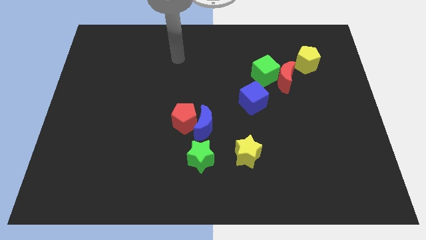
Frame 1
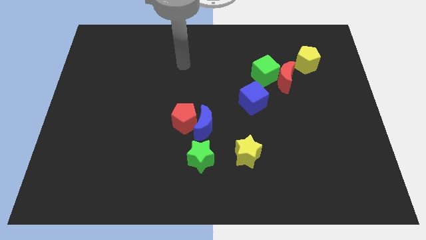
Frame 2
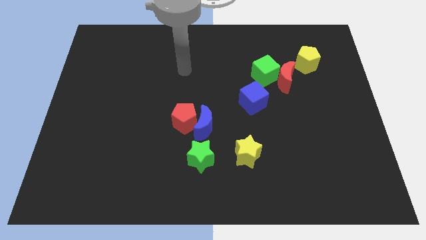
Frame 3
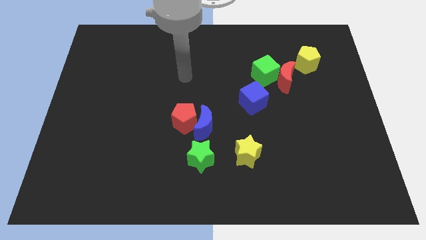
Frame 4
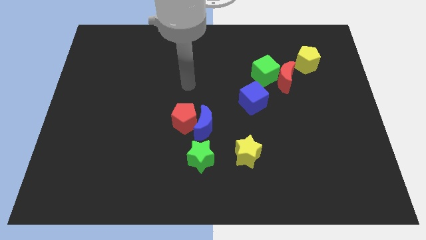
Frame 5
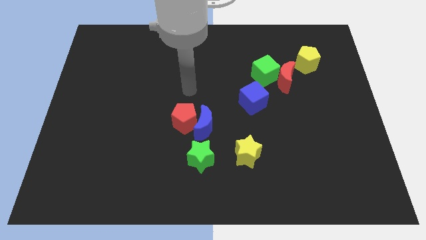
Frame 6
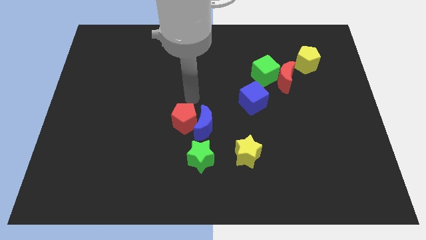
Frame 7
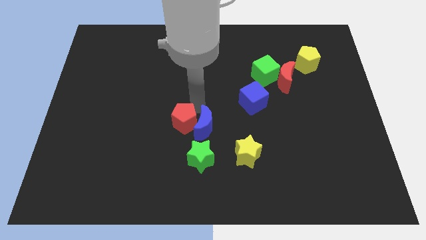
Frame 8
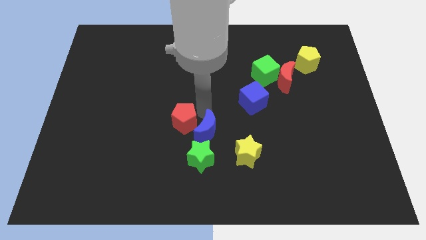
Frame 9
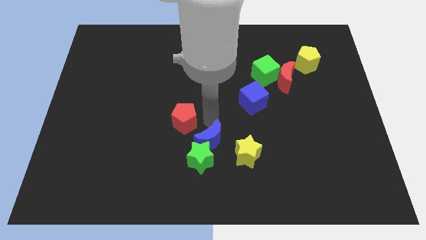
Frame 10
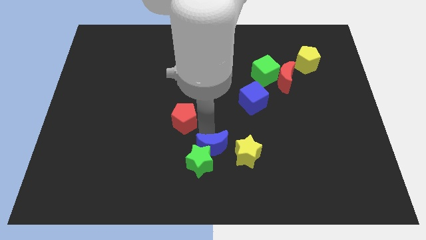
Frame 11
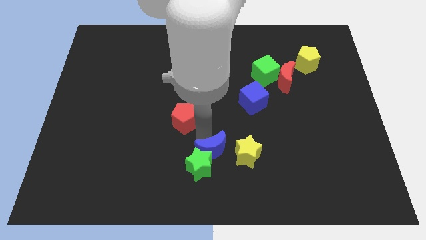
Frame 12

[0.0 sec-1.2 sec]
pull the red pentagon apart from the blue moon

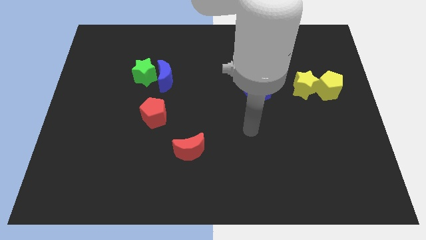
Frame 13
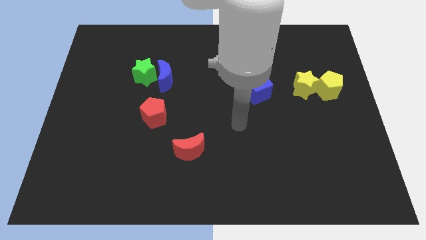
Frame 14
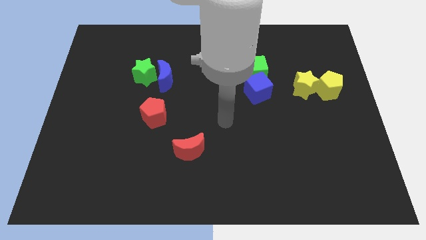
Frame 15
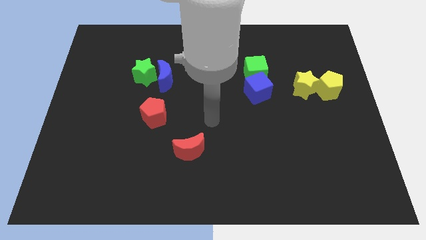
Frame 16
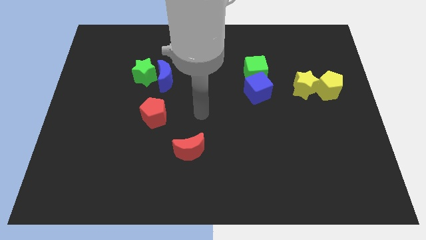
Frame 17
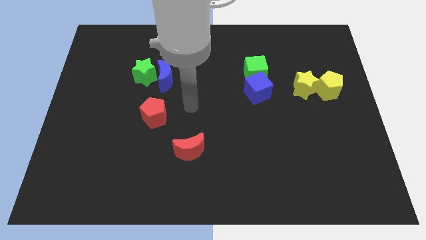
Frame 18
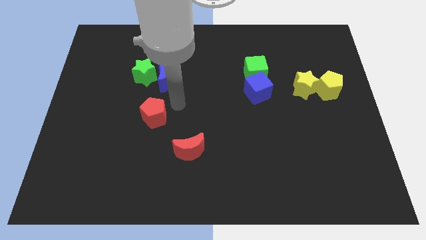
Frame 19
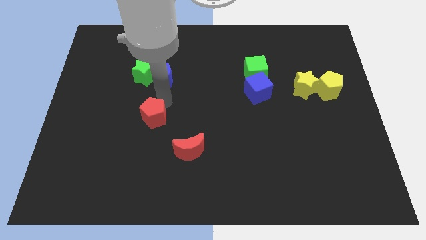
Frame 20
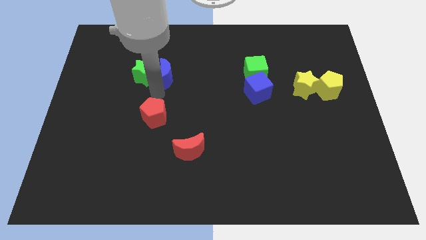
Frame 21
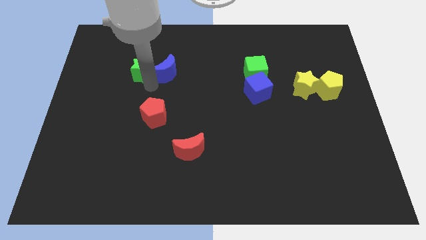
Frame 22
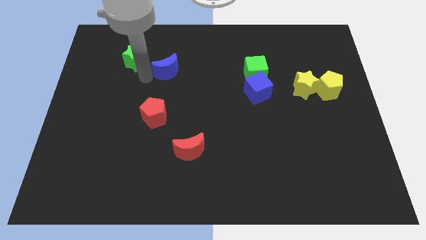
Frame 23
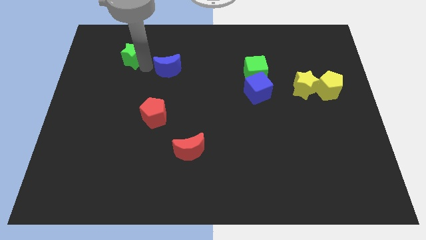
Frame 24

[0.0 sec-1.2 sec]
pull the blue moon apart from the green star

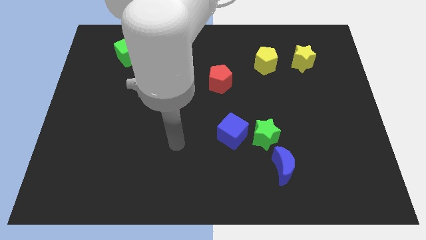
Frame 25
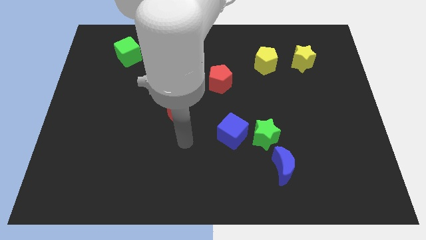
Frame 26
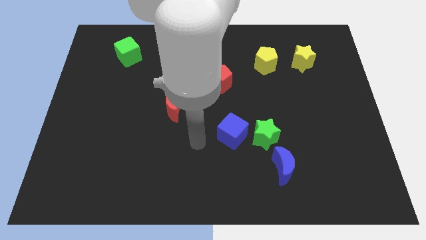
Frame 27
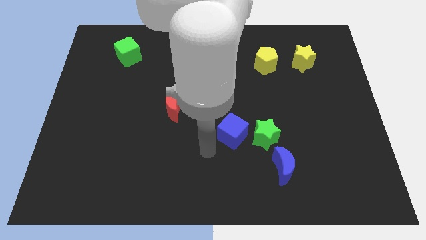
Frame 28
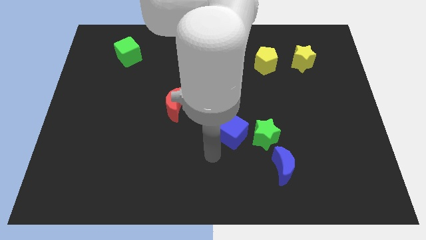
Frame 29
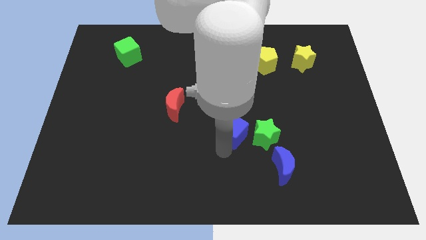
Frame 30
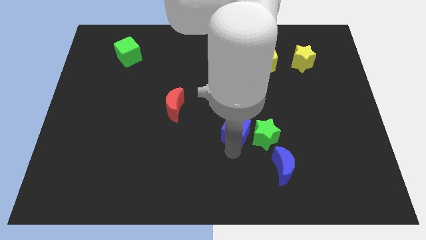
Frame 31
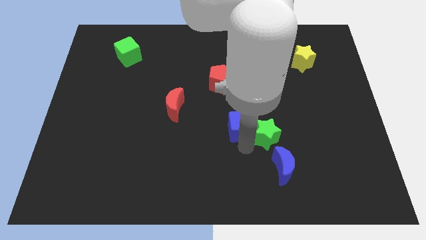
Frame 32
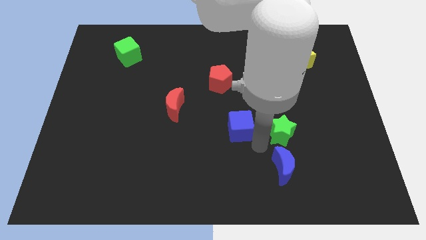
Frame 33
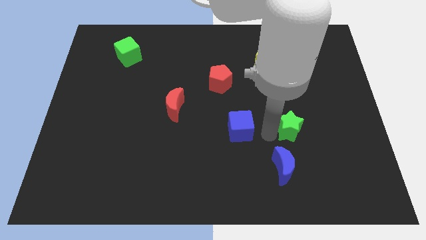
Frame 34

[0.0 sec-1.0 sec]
separate the blue cube from the green star

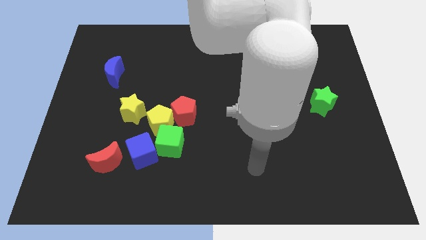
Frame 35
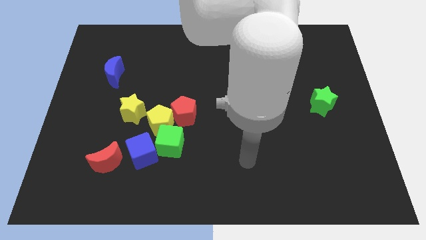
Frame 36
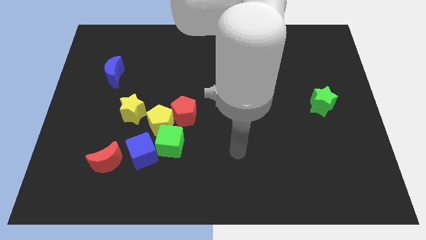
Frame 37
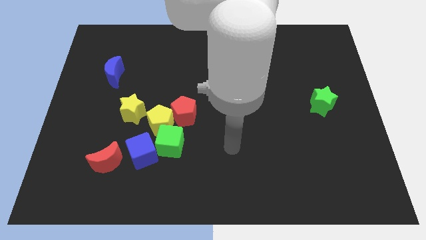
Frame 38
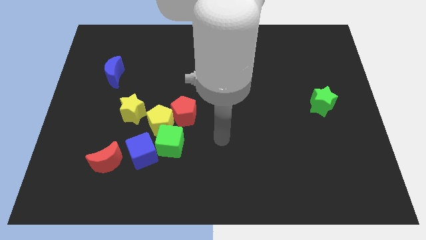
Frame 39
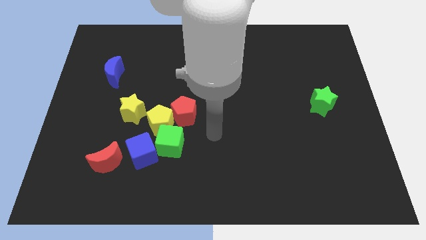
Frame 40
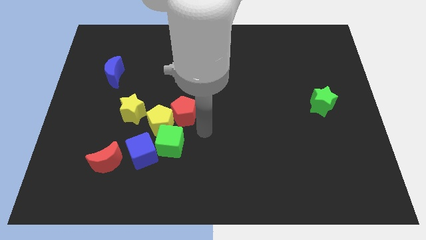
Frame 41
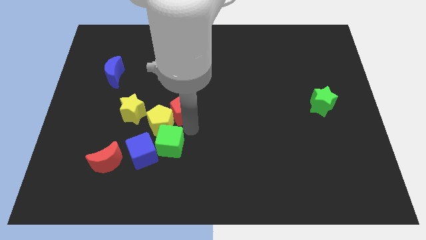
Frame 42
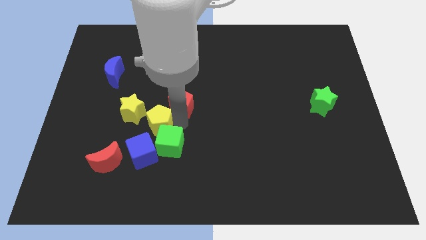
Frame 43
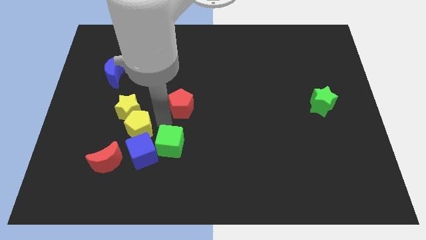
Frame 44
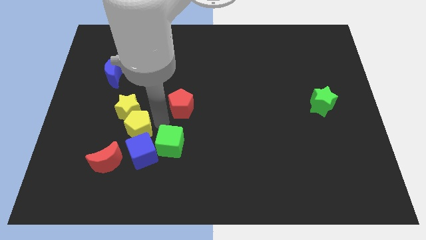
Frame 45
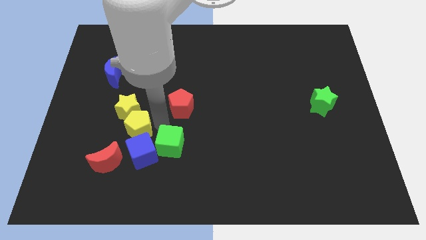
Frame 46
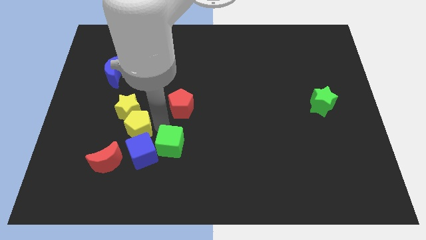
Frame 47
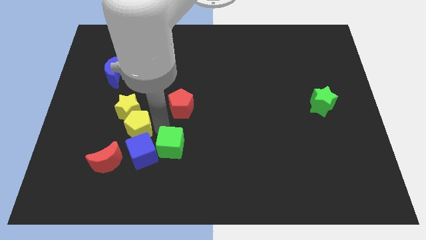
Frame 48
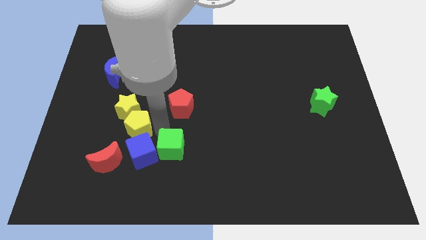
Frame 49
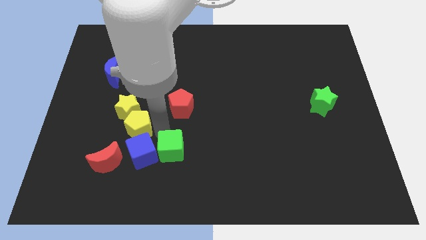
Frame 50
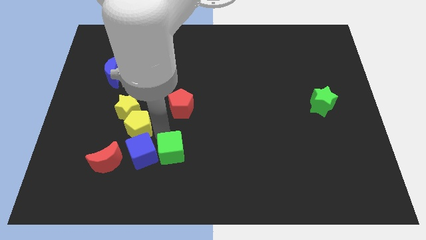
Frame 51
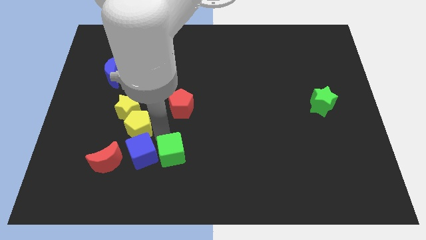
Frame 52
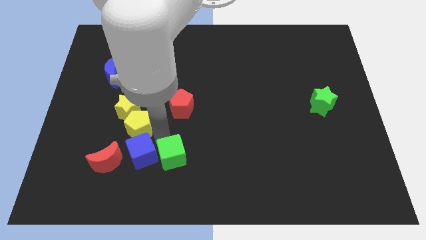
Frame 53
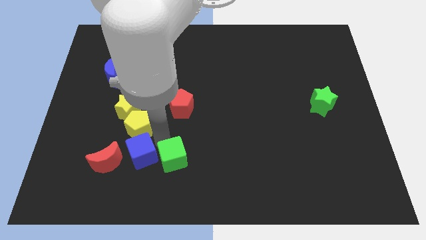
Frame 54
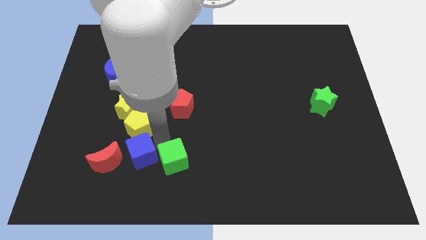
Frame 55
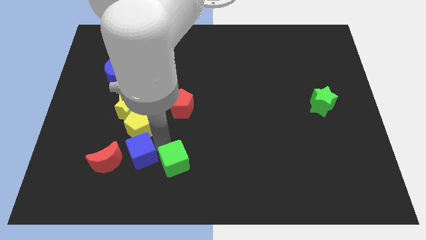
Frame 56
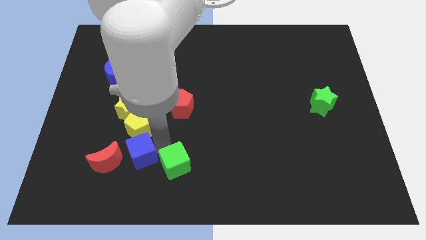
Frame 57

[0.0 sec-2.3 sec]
move the green cube away from the yellow pentagon, blue cube, and red pentagon

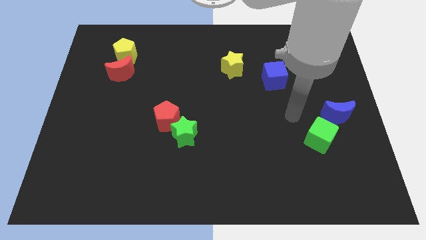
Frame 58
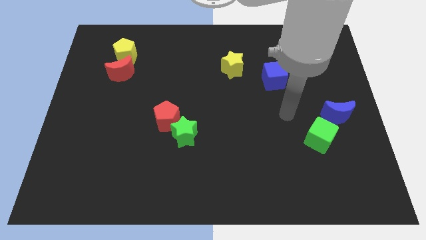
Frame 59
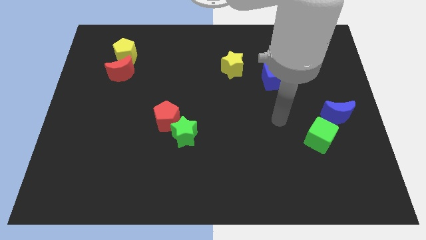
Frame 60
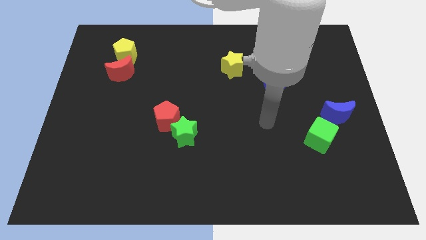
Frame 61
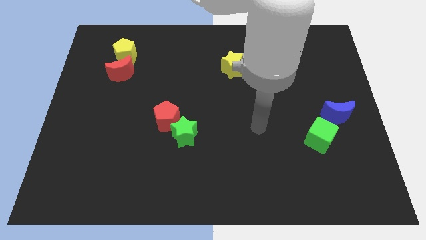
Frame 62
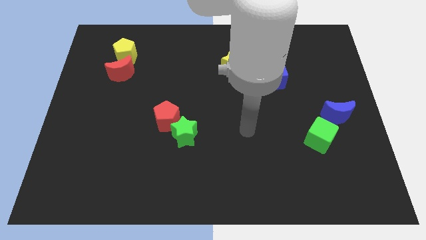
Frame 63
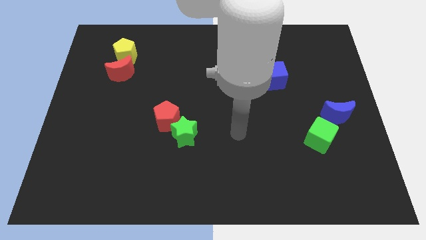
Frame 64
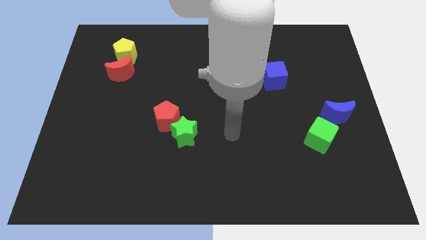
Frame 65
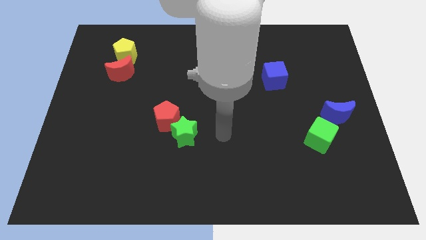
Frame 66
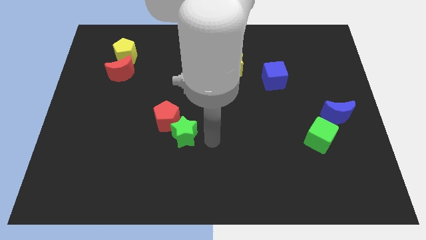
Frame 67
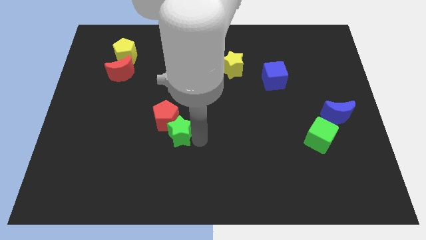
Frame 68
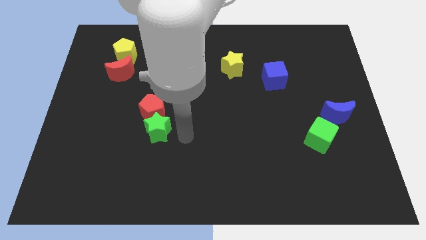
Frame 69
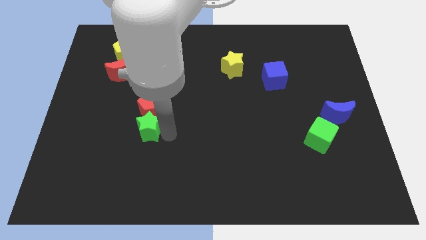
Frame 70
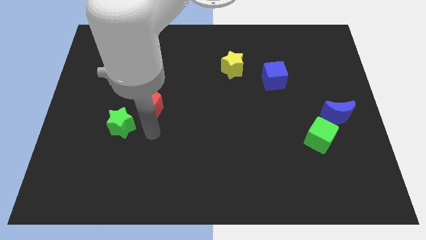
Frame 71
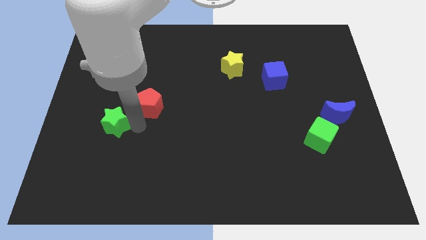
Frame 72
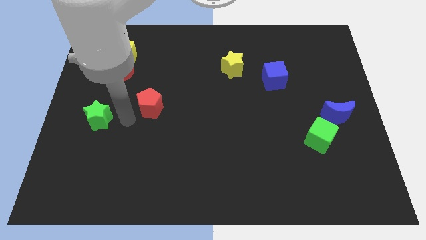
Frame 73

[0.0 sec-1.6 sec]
separate the red pentagon from the green star

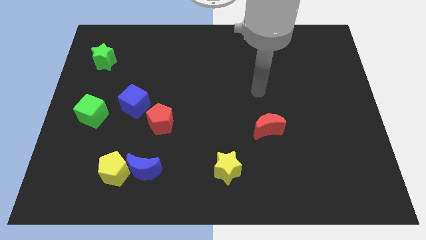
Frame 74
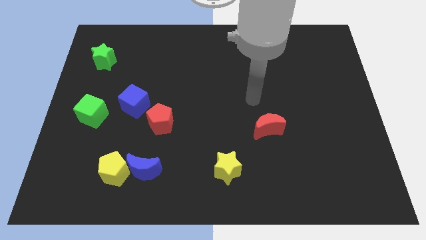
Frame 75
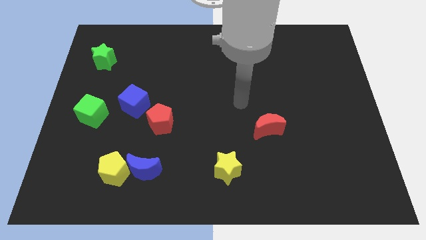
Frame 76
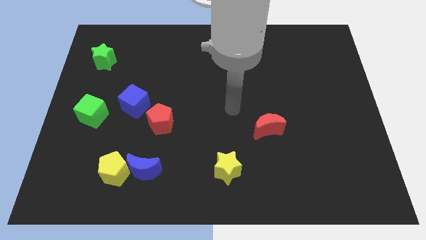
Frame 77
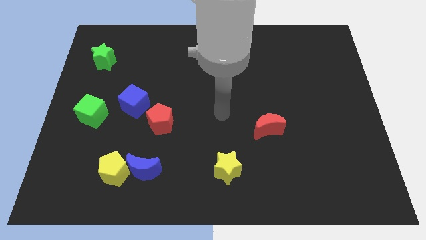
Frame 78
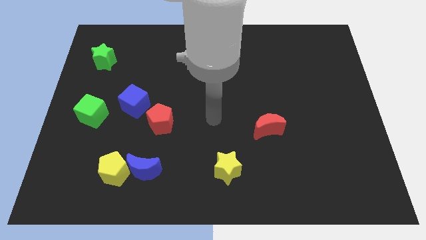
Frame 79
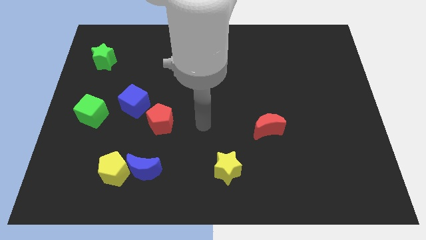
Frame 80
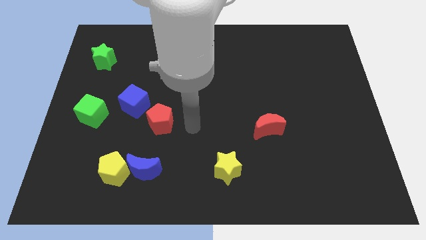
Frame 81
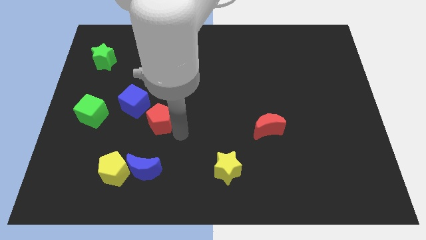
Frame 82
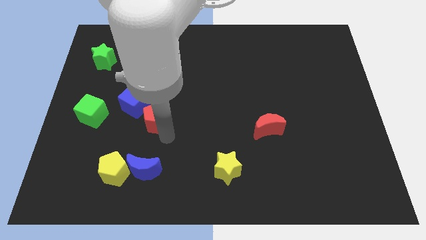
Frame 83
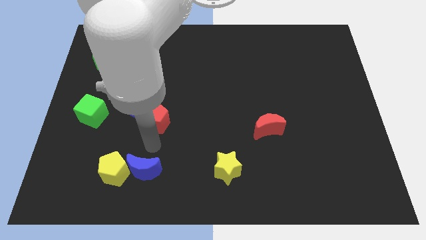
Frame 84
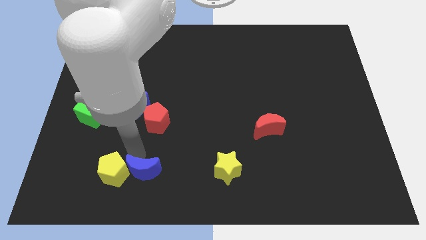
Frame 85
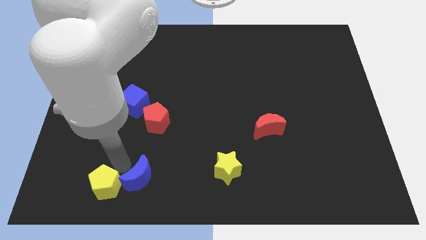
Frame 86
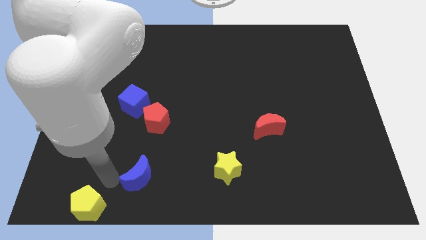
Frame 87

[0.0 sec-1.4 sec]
move the blue moon away from the yellow pentagon

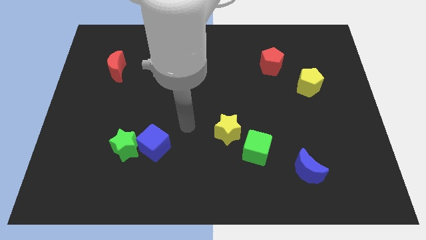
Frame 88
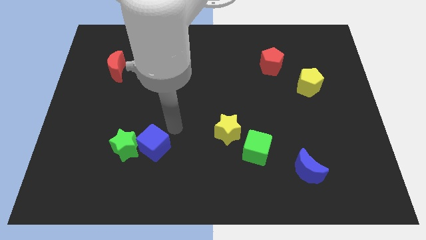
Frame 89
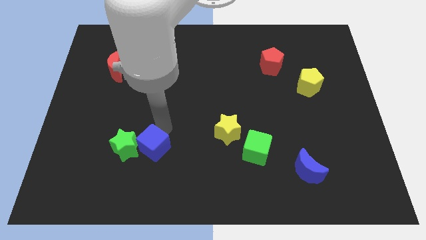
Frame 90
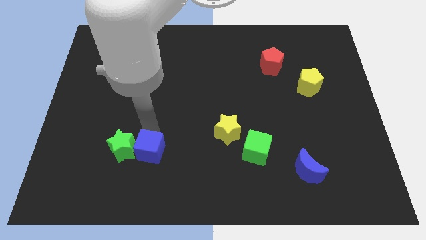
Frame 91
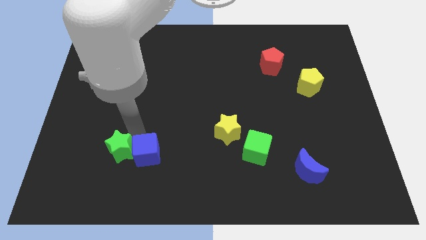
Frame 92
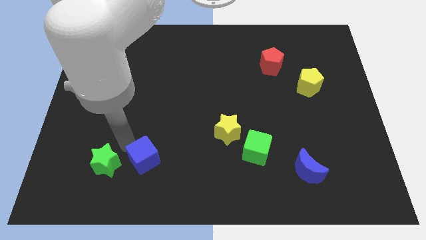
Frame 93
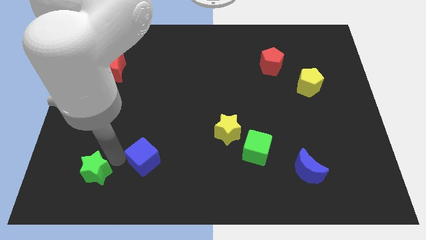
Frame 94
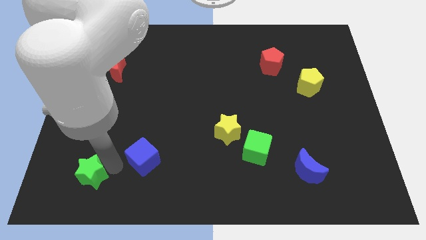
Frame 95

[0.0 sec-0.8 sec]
move the blue cube away from the green star
